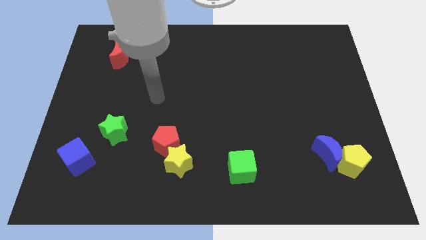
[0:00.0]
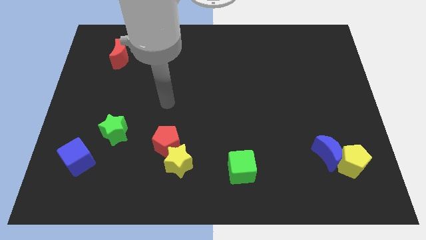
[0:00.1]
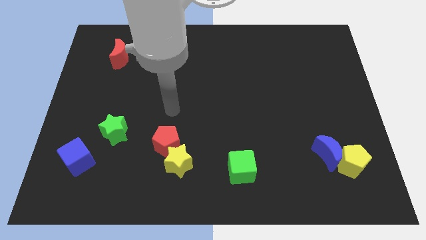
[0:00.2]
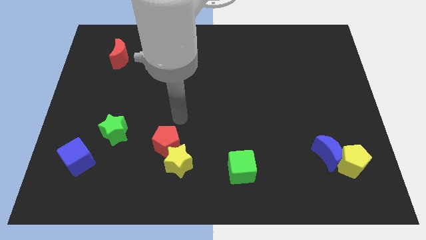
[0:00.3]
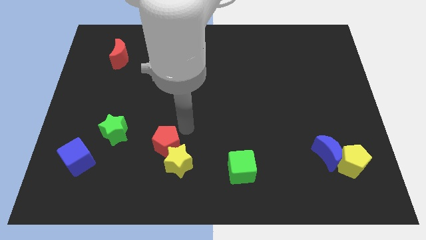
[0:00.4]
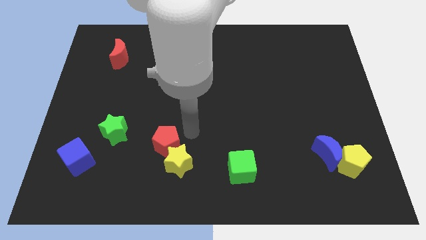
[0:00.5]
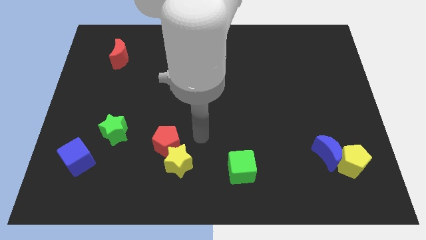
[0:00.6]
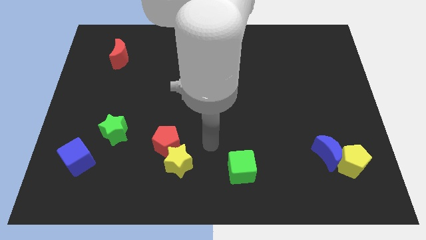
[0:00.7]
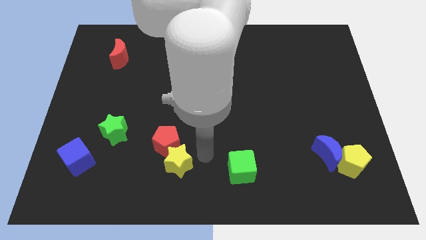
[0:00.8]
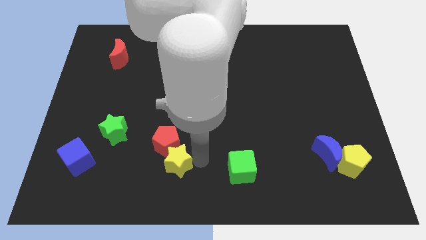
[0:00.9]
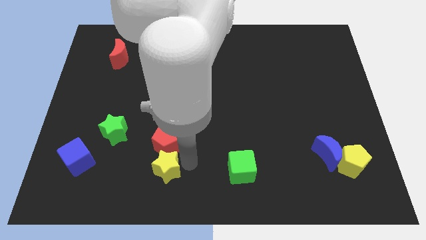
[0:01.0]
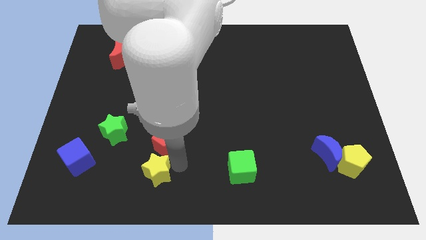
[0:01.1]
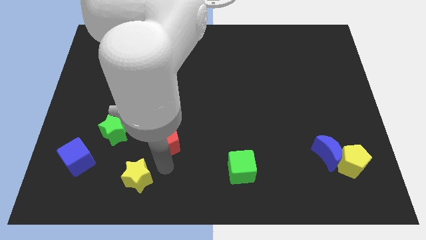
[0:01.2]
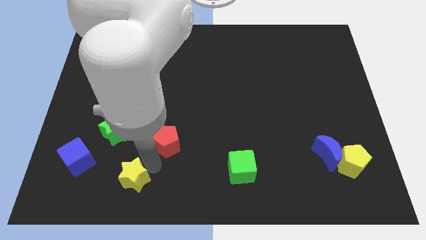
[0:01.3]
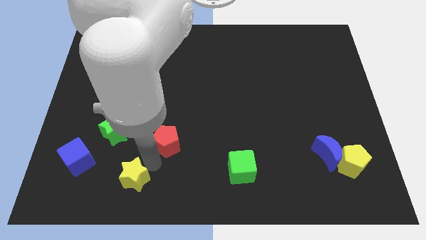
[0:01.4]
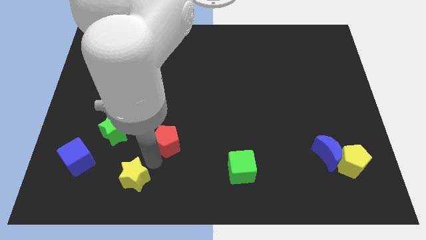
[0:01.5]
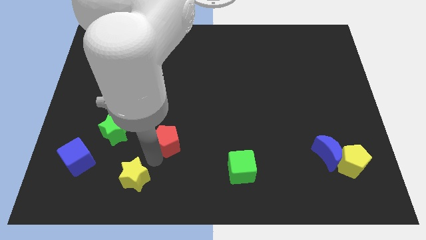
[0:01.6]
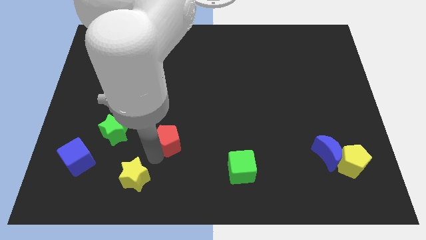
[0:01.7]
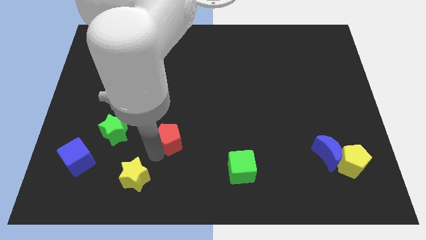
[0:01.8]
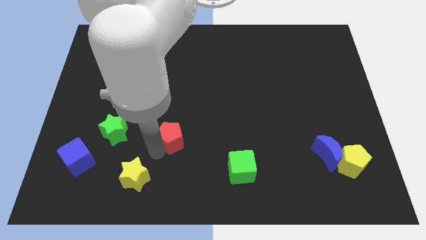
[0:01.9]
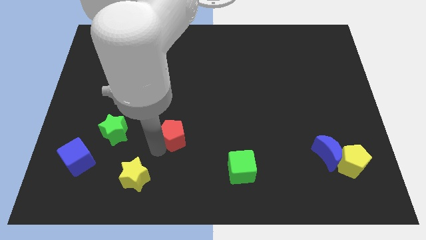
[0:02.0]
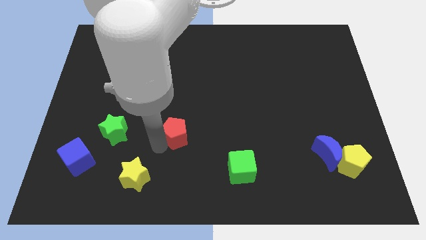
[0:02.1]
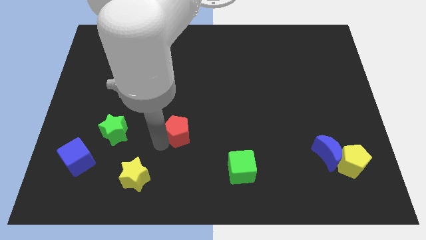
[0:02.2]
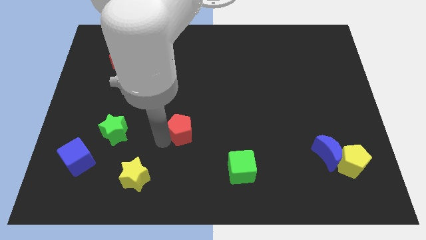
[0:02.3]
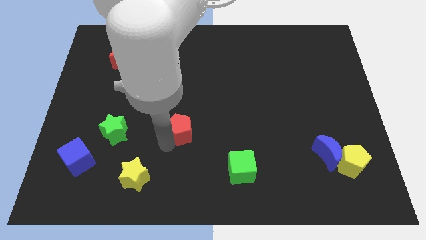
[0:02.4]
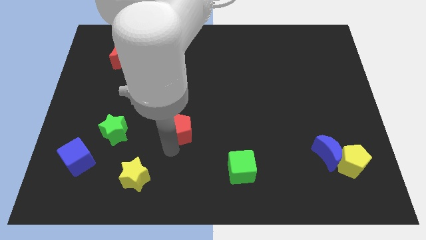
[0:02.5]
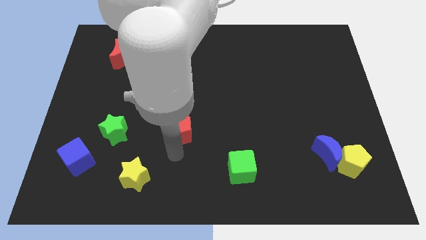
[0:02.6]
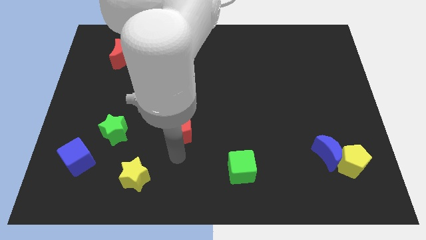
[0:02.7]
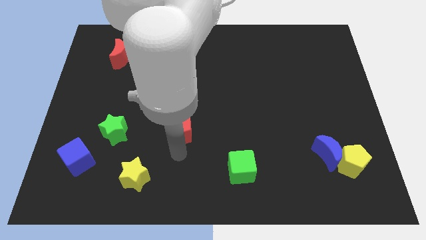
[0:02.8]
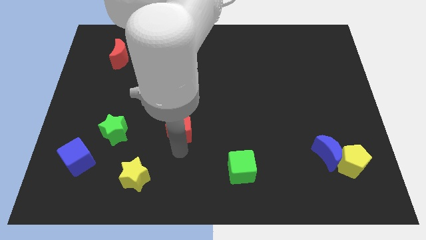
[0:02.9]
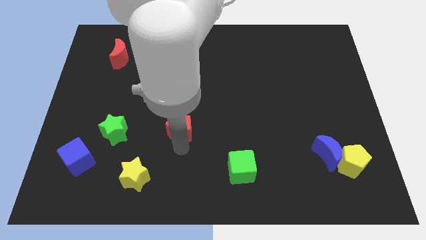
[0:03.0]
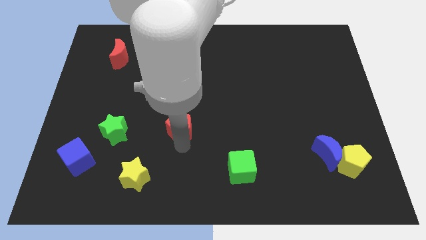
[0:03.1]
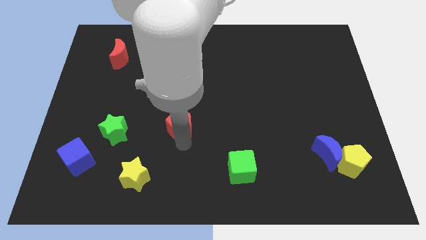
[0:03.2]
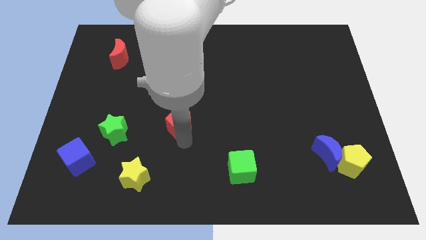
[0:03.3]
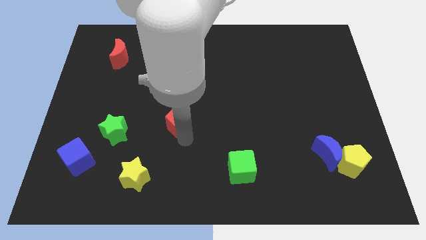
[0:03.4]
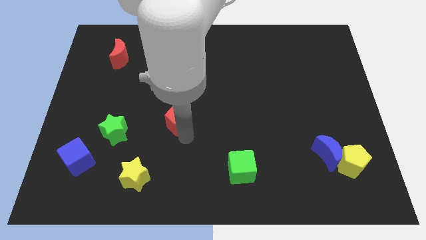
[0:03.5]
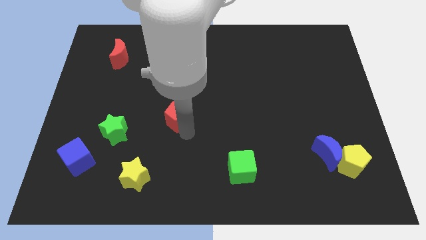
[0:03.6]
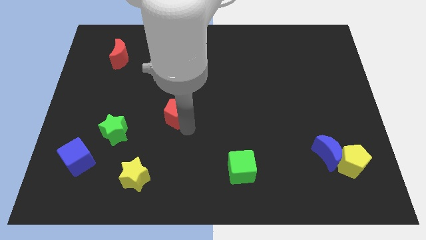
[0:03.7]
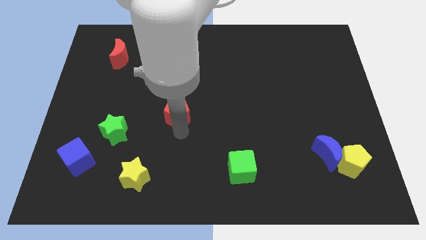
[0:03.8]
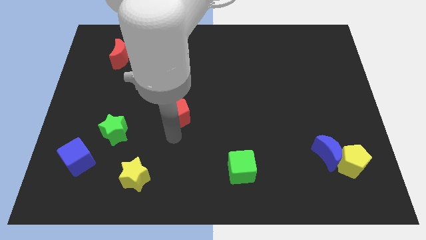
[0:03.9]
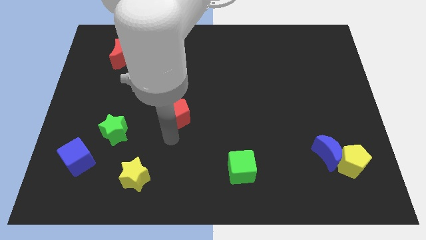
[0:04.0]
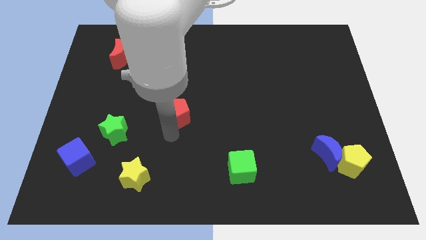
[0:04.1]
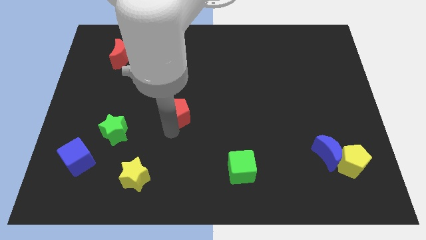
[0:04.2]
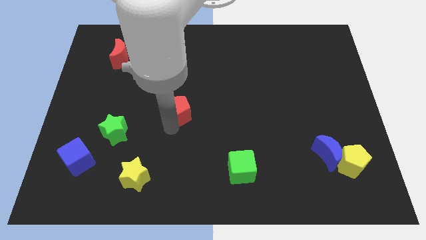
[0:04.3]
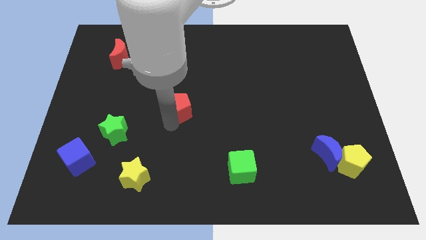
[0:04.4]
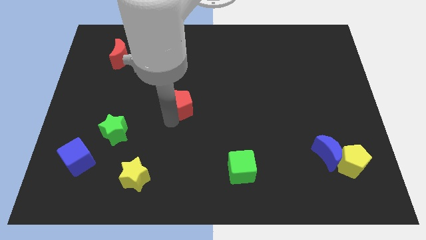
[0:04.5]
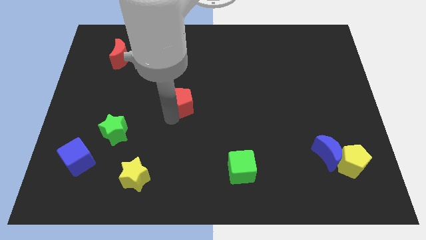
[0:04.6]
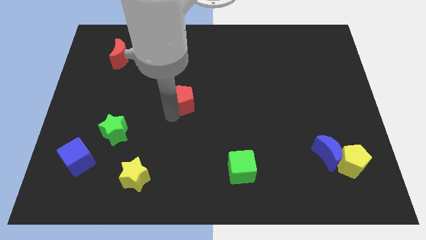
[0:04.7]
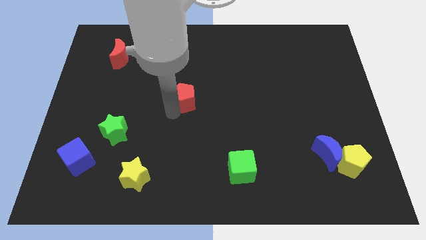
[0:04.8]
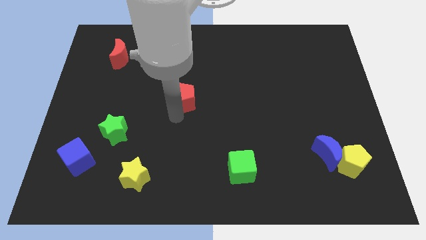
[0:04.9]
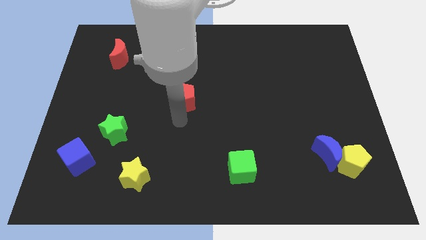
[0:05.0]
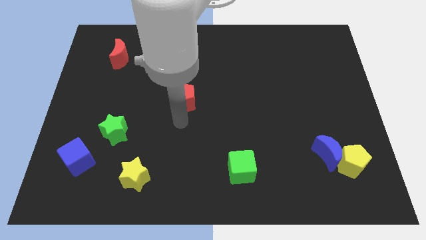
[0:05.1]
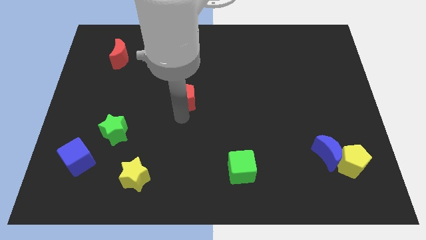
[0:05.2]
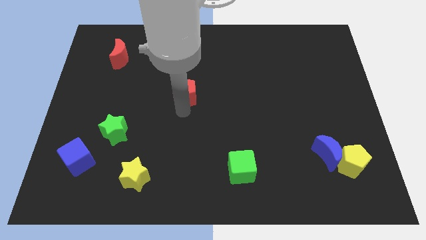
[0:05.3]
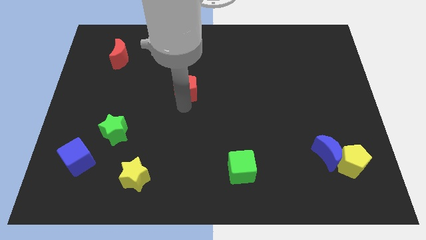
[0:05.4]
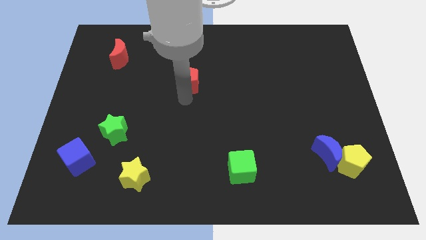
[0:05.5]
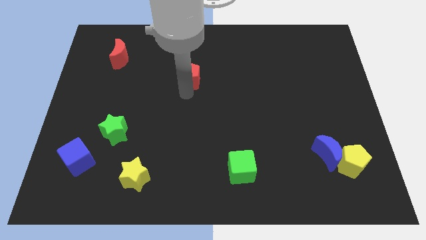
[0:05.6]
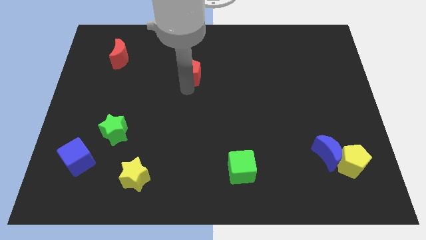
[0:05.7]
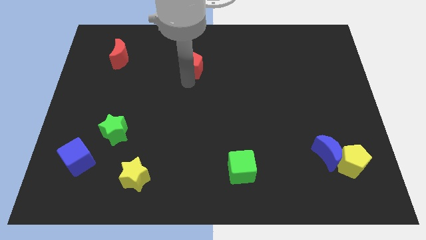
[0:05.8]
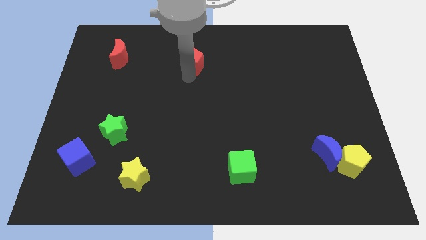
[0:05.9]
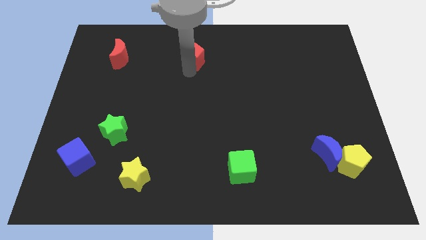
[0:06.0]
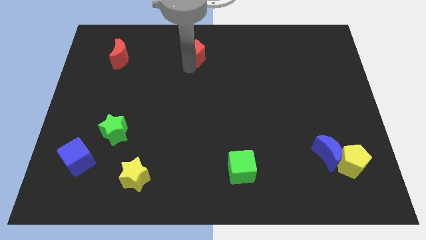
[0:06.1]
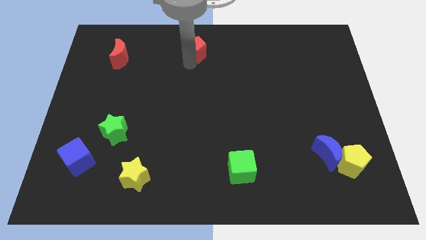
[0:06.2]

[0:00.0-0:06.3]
slide the red pentagon to the top

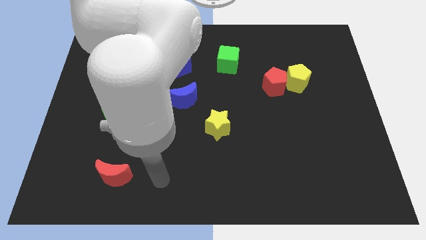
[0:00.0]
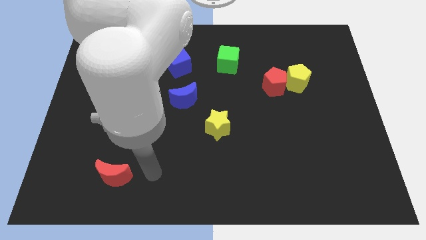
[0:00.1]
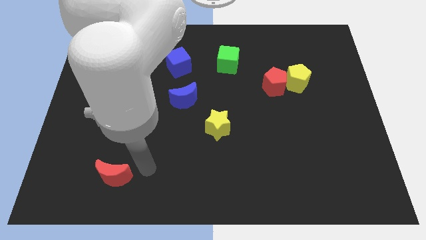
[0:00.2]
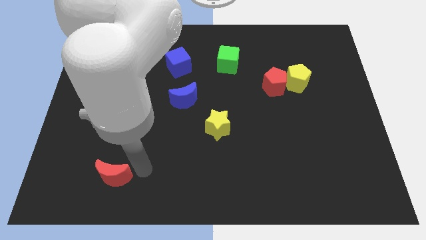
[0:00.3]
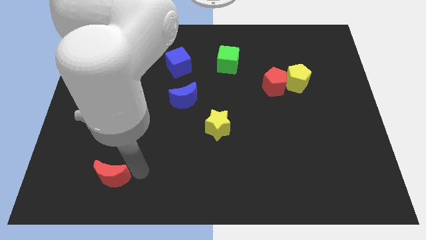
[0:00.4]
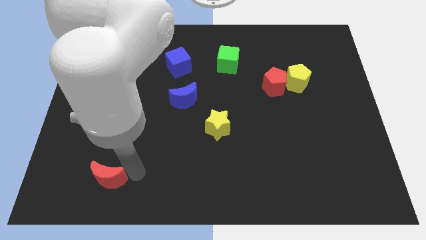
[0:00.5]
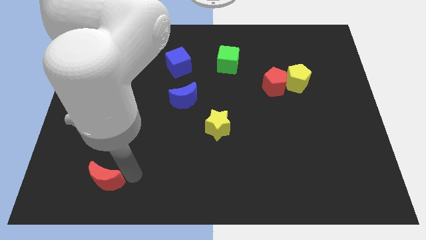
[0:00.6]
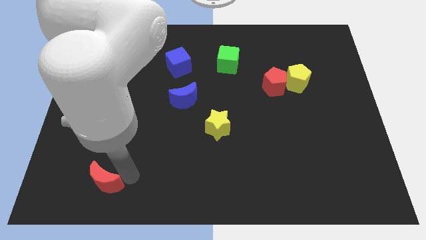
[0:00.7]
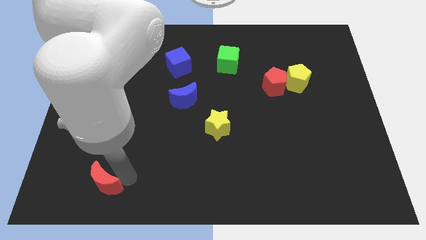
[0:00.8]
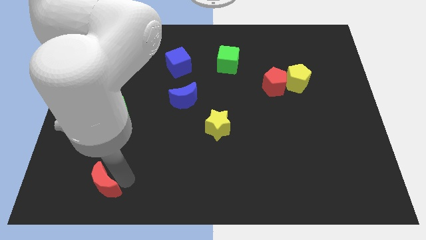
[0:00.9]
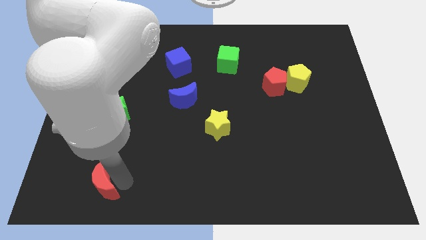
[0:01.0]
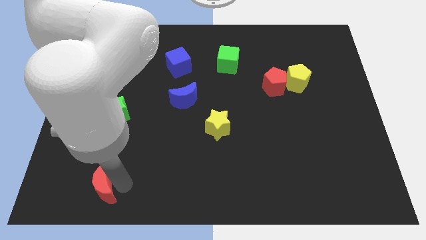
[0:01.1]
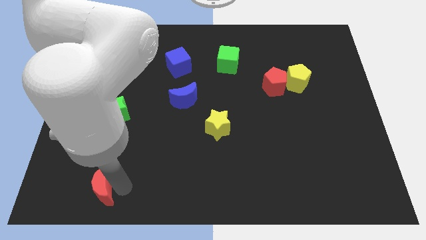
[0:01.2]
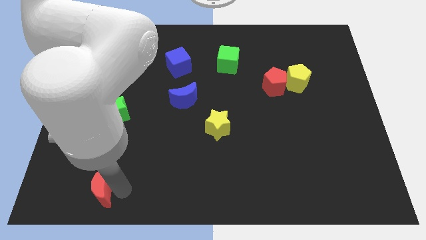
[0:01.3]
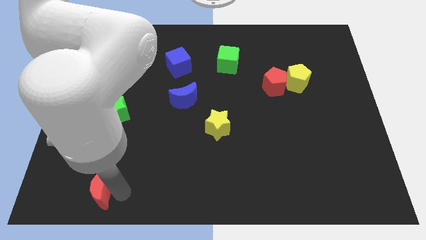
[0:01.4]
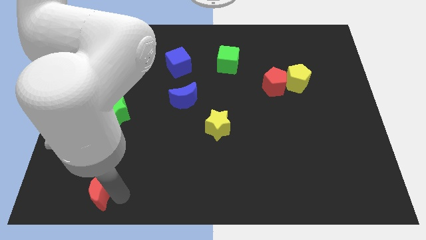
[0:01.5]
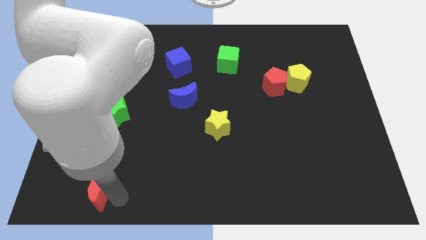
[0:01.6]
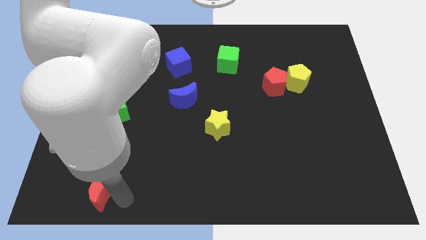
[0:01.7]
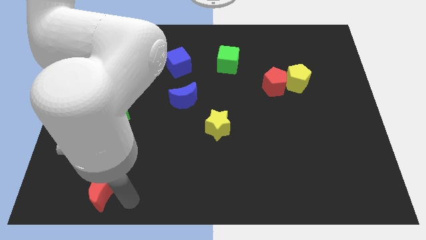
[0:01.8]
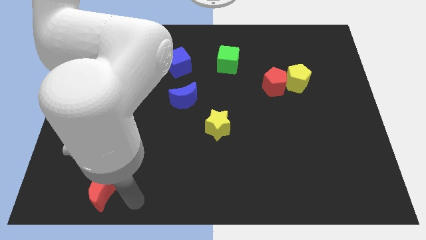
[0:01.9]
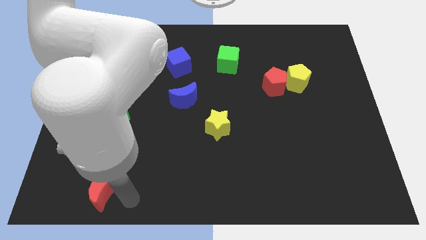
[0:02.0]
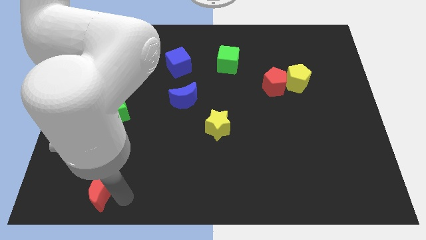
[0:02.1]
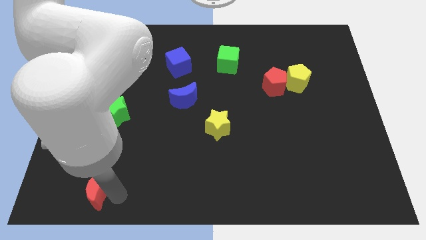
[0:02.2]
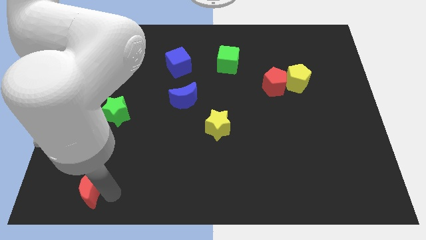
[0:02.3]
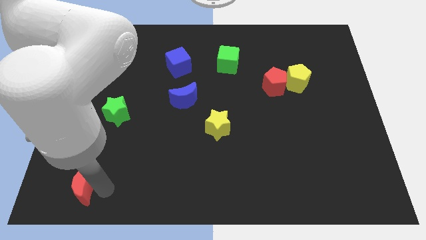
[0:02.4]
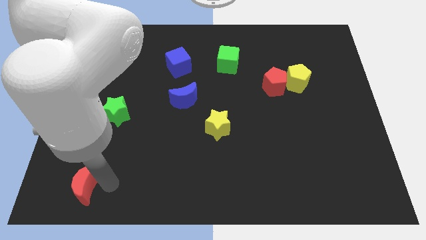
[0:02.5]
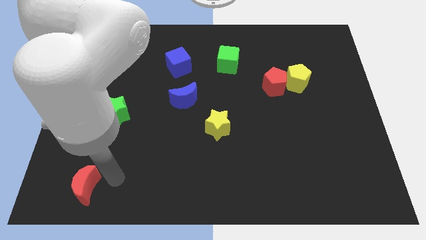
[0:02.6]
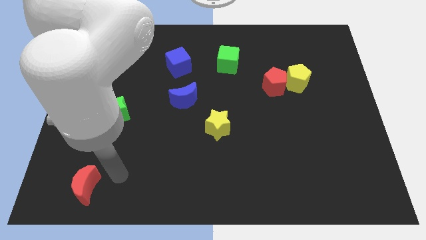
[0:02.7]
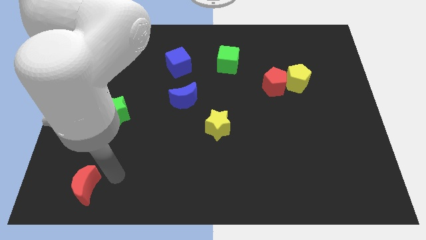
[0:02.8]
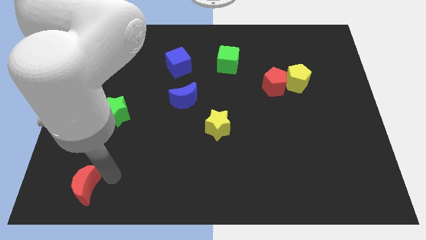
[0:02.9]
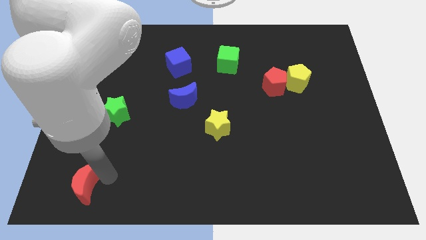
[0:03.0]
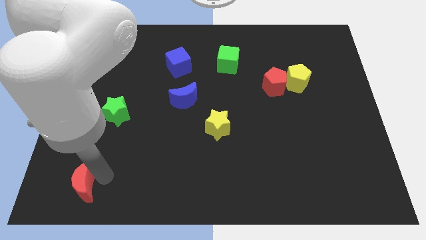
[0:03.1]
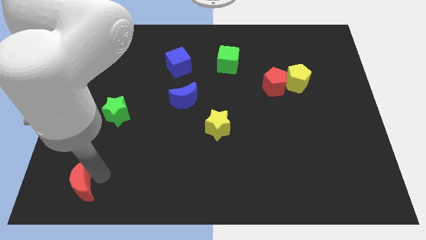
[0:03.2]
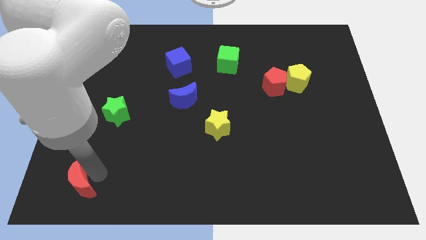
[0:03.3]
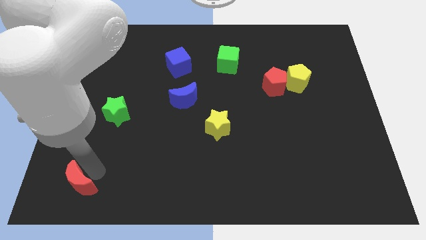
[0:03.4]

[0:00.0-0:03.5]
move the red moon to the lower left corner
